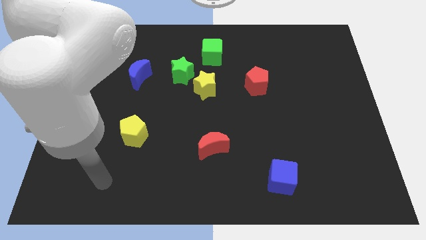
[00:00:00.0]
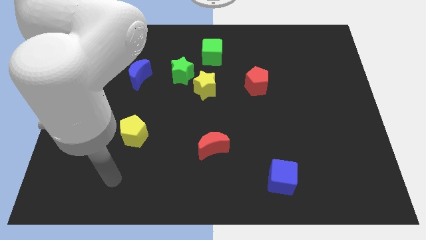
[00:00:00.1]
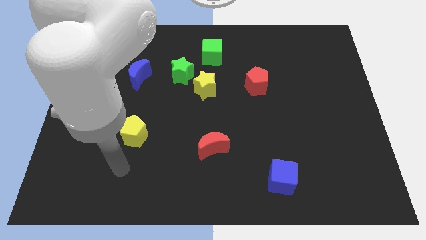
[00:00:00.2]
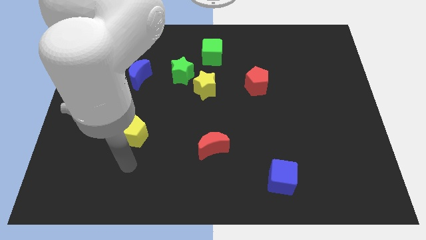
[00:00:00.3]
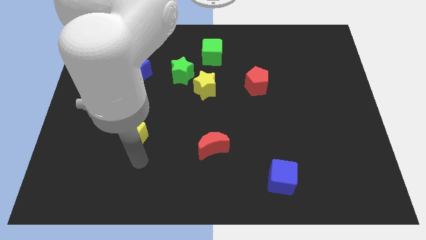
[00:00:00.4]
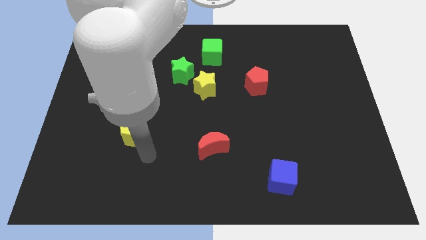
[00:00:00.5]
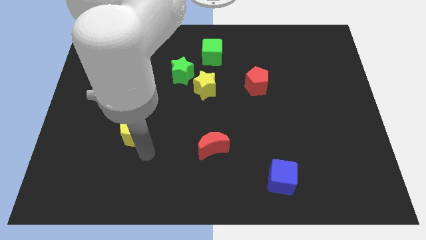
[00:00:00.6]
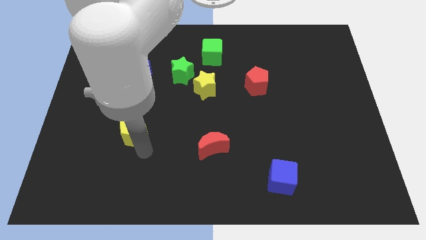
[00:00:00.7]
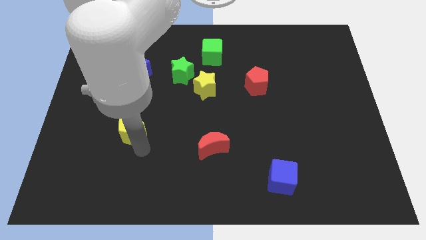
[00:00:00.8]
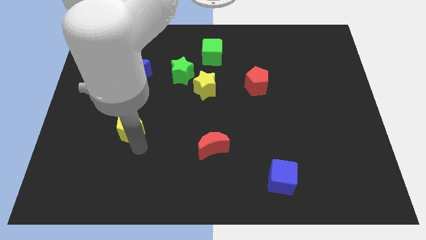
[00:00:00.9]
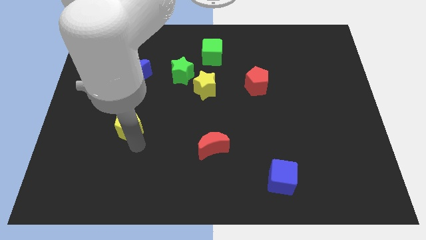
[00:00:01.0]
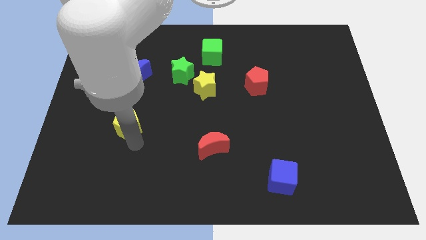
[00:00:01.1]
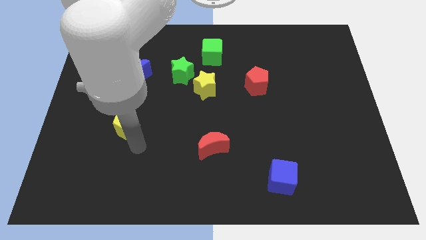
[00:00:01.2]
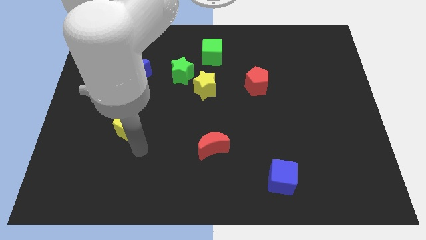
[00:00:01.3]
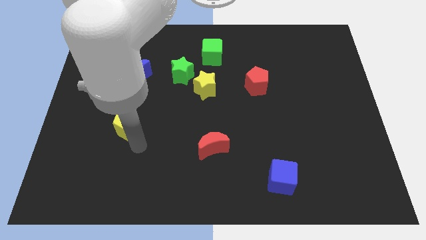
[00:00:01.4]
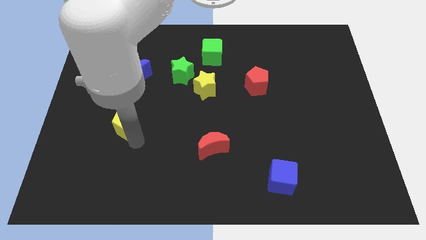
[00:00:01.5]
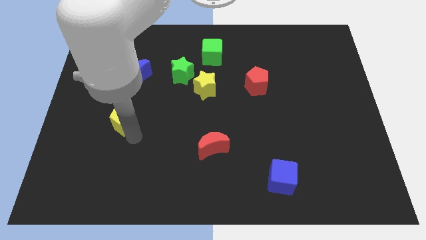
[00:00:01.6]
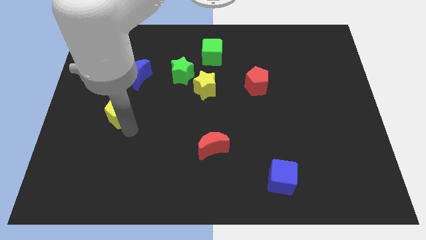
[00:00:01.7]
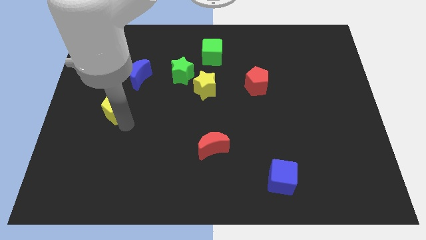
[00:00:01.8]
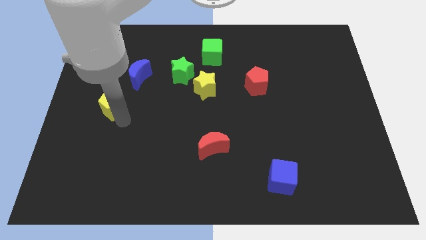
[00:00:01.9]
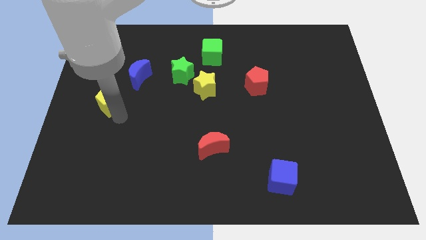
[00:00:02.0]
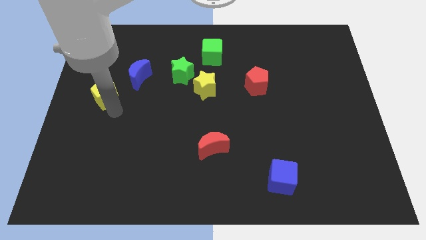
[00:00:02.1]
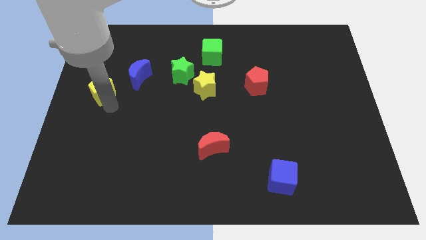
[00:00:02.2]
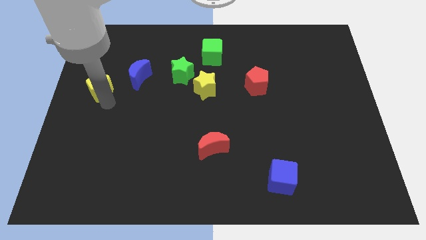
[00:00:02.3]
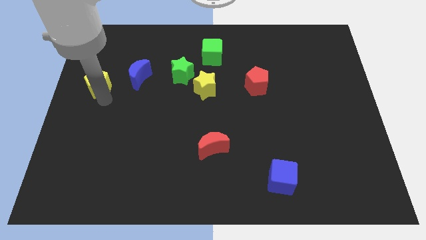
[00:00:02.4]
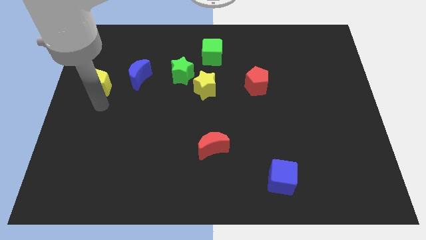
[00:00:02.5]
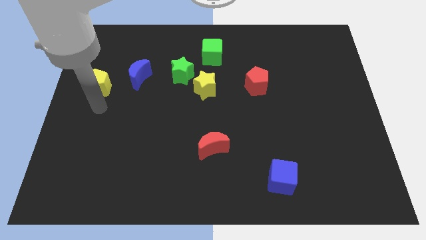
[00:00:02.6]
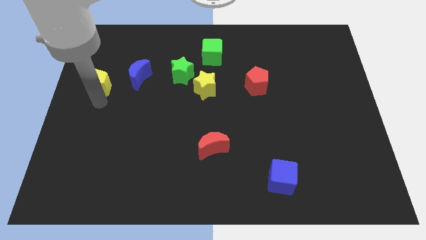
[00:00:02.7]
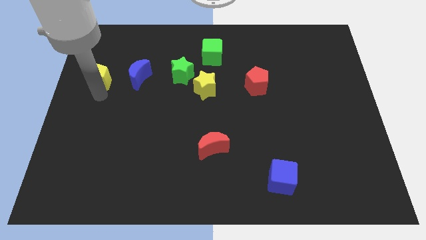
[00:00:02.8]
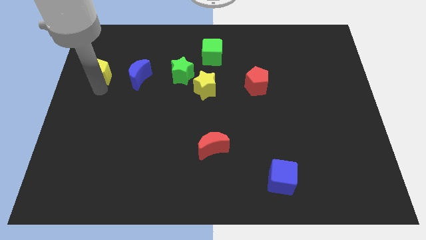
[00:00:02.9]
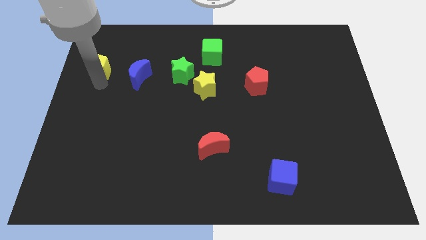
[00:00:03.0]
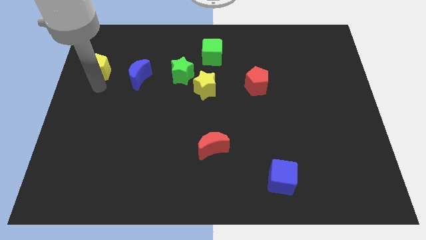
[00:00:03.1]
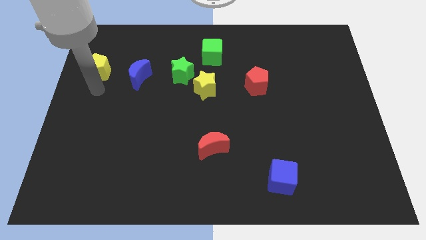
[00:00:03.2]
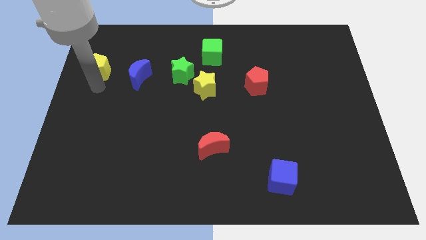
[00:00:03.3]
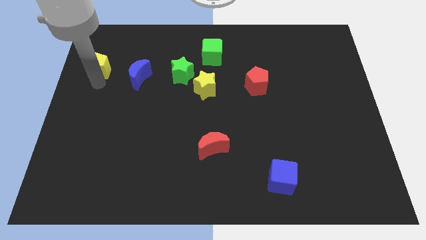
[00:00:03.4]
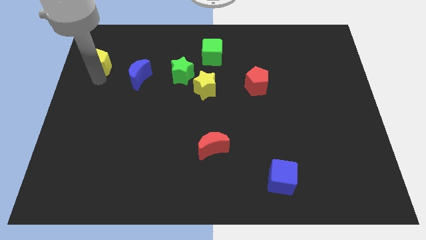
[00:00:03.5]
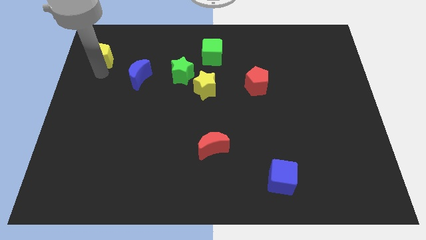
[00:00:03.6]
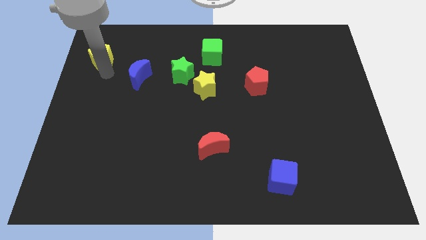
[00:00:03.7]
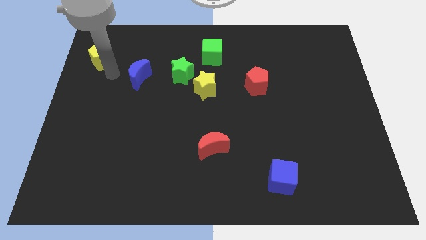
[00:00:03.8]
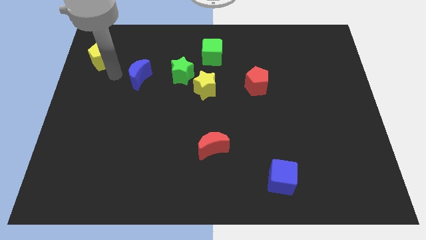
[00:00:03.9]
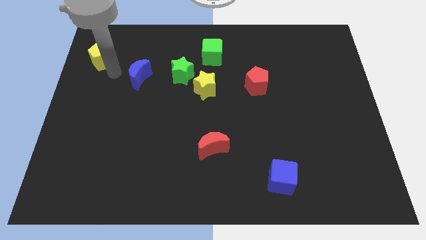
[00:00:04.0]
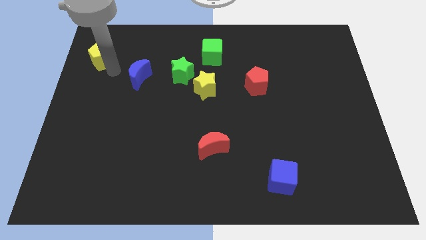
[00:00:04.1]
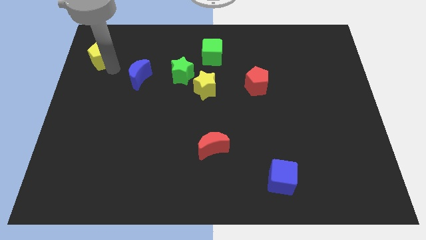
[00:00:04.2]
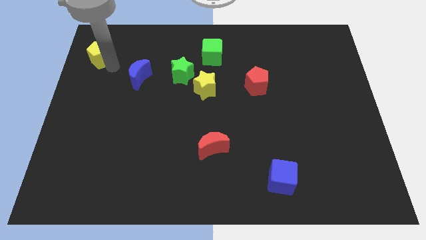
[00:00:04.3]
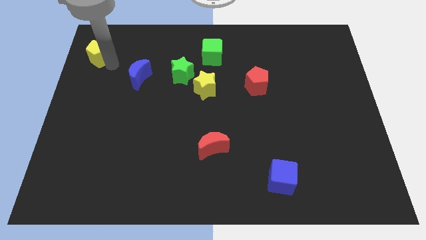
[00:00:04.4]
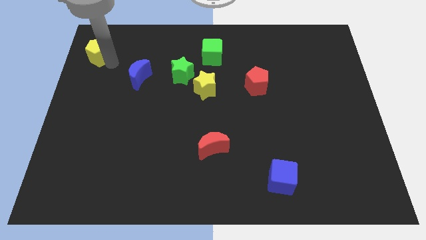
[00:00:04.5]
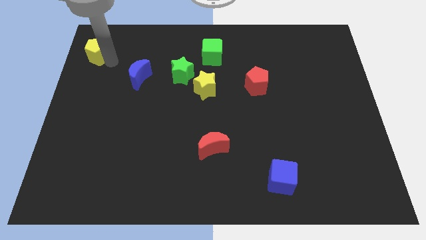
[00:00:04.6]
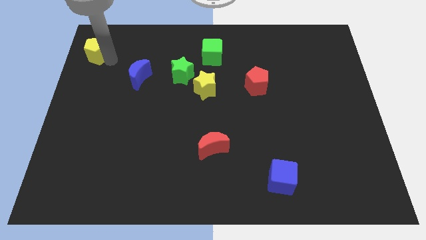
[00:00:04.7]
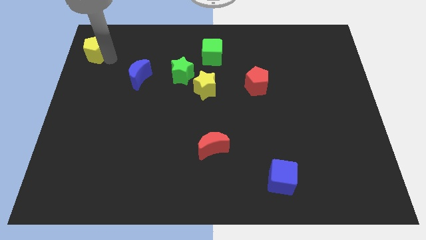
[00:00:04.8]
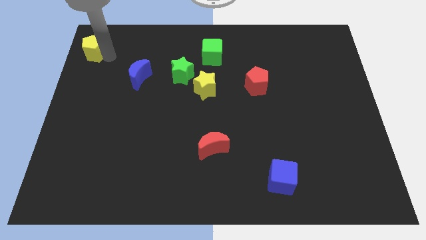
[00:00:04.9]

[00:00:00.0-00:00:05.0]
slide the yellow pentagon to the top left corner

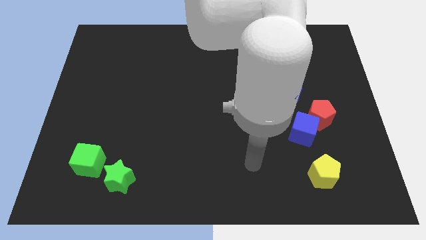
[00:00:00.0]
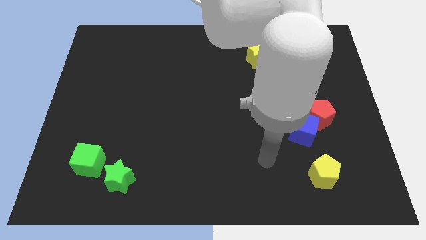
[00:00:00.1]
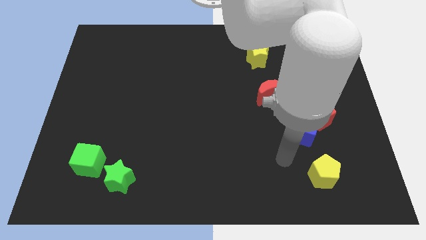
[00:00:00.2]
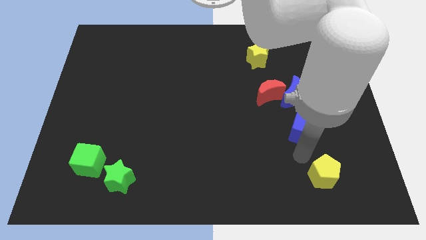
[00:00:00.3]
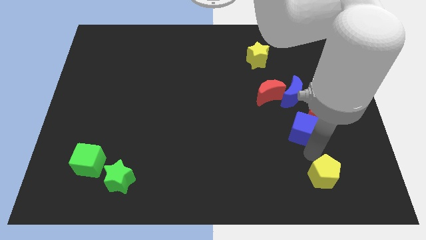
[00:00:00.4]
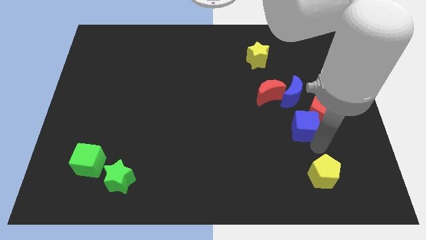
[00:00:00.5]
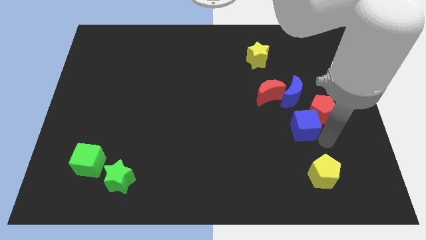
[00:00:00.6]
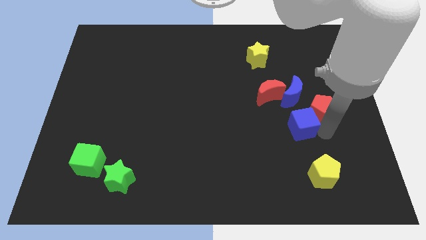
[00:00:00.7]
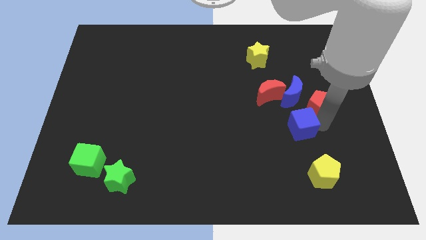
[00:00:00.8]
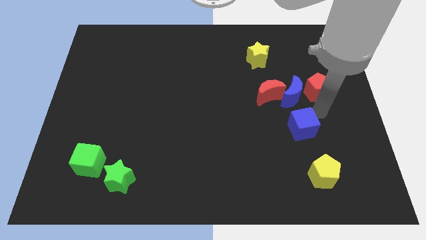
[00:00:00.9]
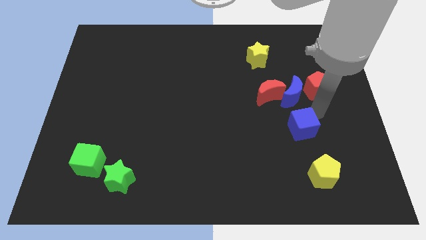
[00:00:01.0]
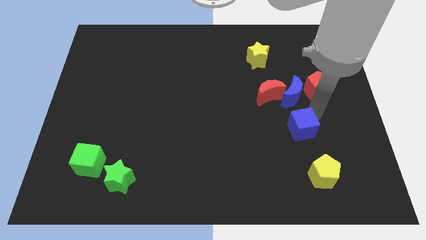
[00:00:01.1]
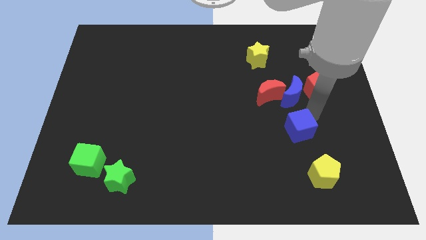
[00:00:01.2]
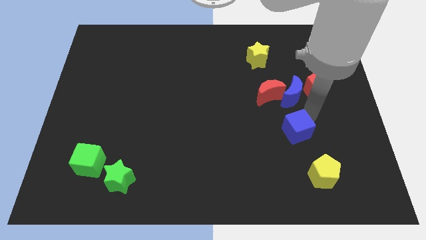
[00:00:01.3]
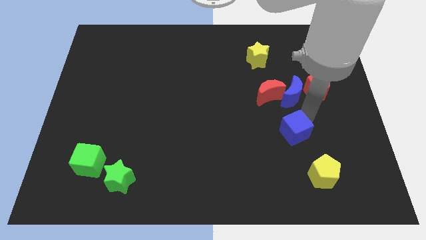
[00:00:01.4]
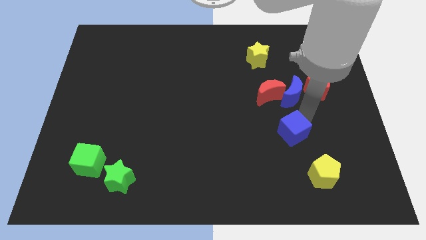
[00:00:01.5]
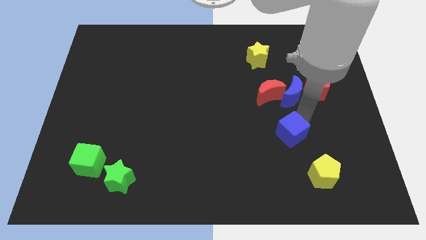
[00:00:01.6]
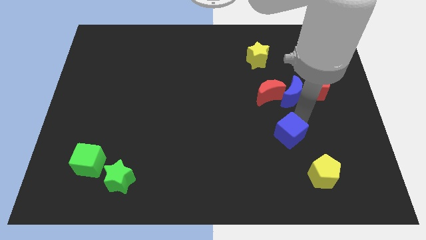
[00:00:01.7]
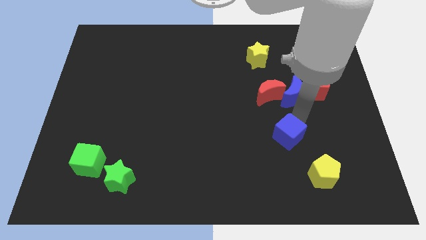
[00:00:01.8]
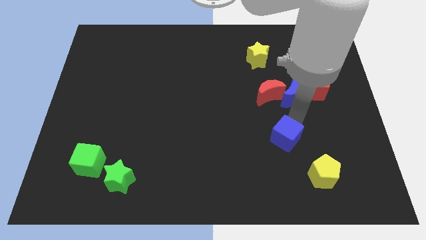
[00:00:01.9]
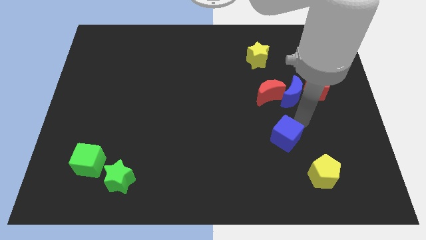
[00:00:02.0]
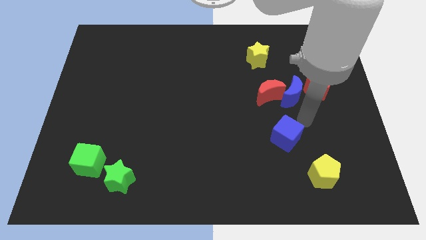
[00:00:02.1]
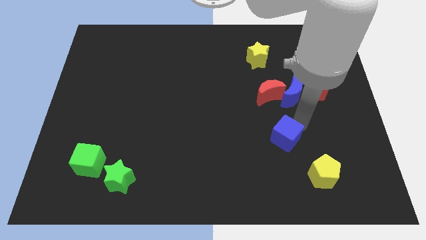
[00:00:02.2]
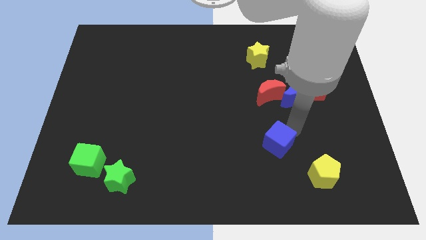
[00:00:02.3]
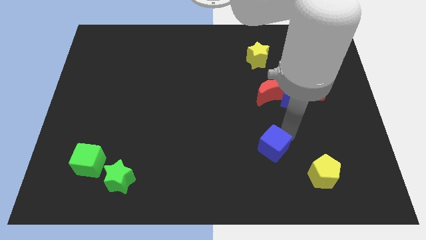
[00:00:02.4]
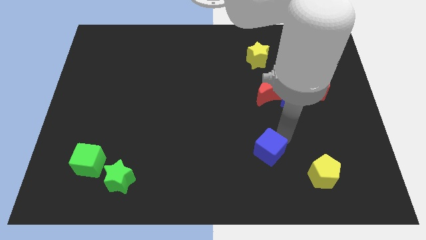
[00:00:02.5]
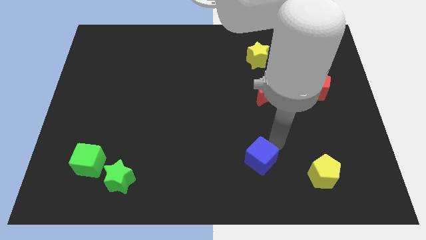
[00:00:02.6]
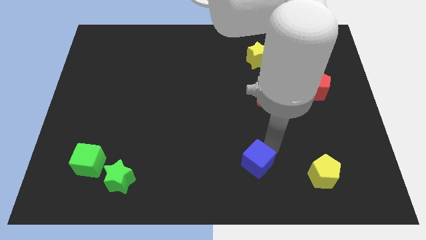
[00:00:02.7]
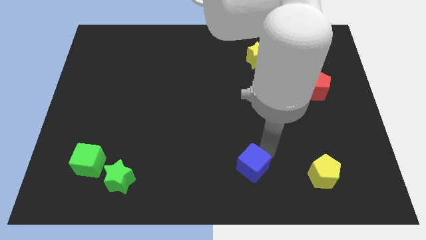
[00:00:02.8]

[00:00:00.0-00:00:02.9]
move the blue cube to the bottom side
